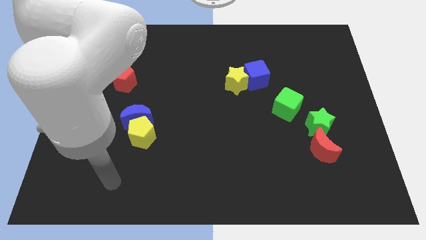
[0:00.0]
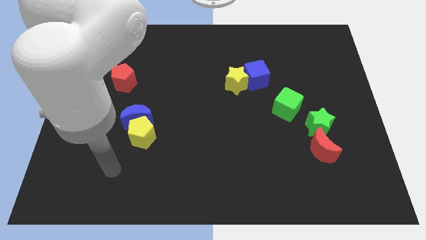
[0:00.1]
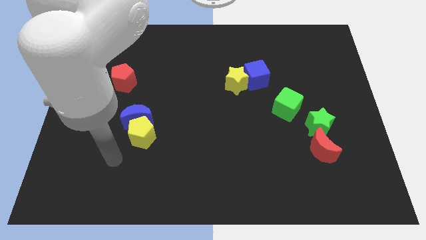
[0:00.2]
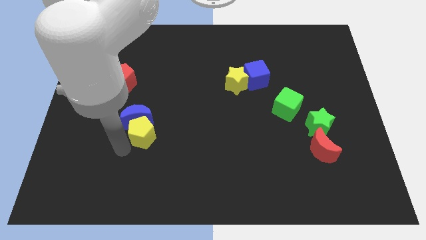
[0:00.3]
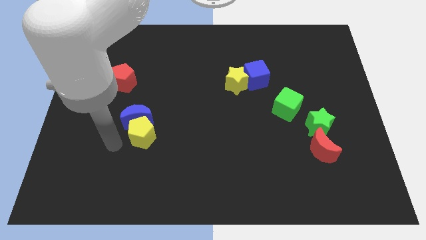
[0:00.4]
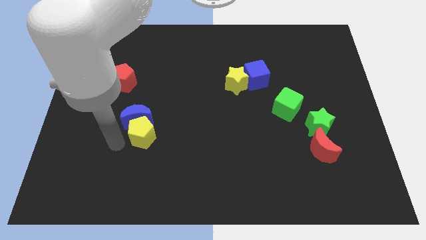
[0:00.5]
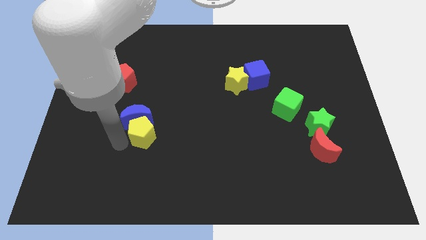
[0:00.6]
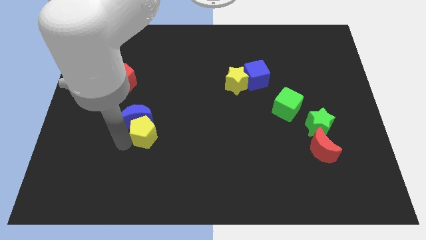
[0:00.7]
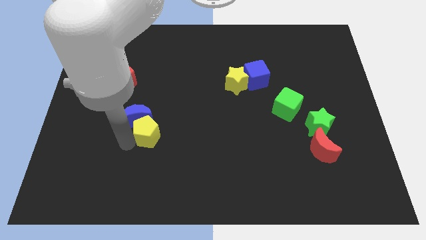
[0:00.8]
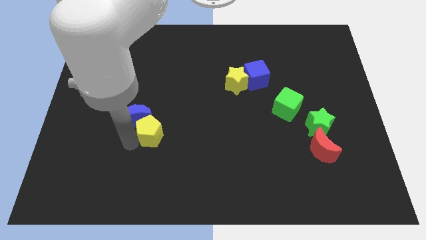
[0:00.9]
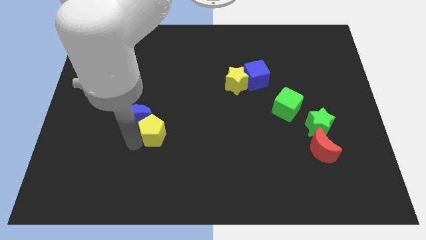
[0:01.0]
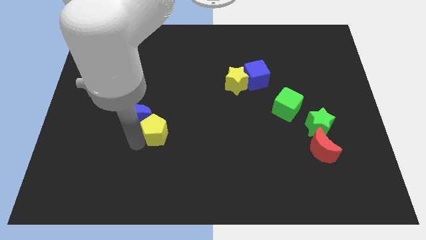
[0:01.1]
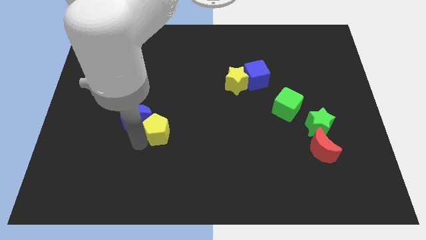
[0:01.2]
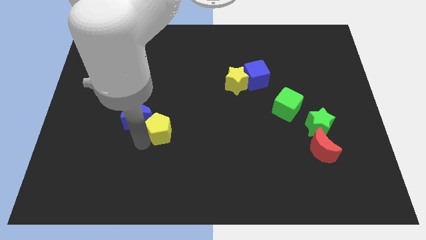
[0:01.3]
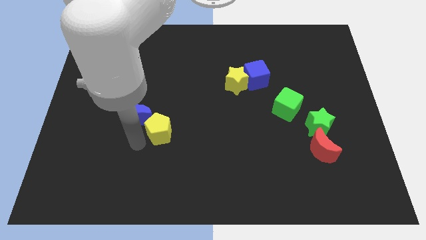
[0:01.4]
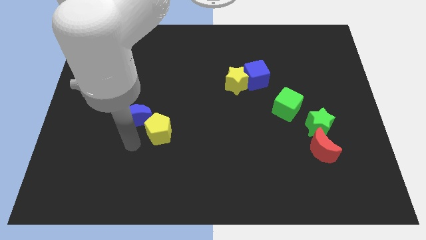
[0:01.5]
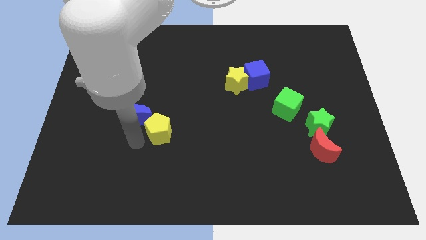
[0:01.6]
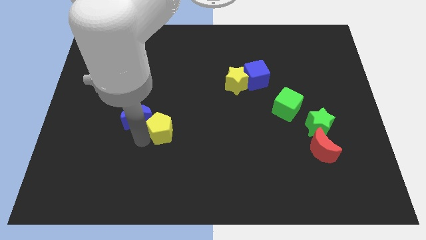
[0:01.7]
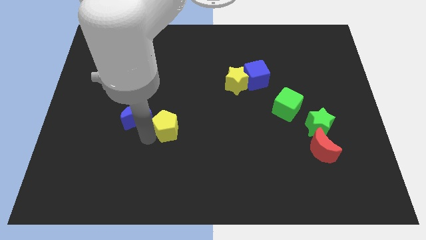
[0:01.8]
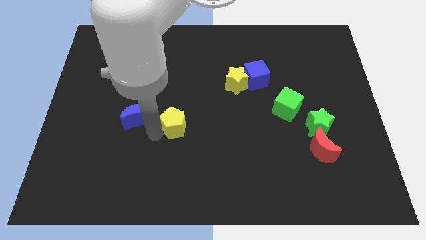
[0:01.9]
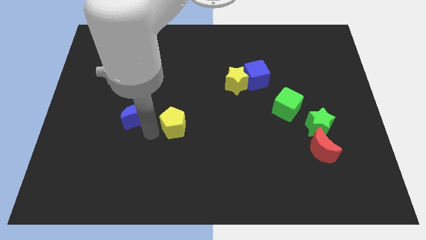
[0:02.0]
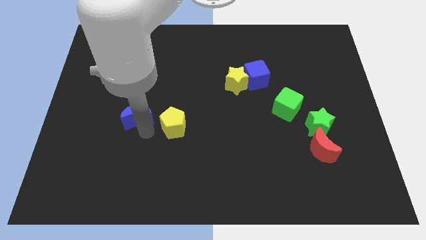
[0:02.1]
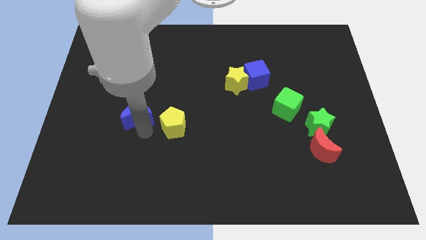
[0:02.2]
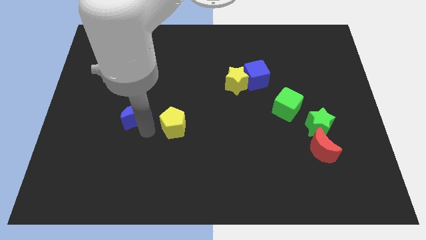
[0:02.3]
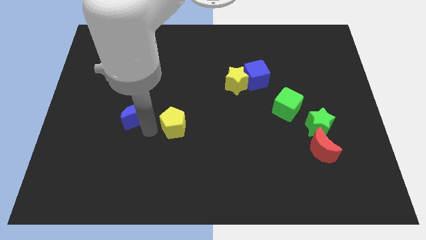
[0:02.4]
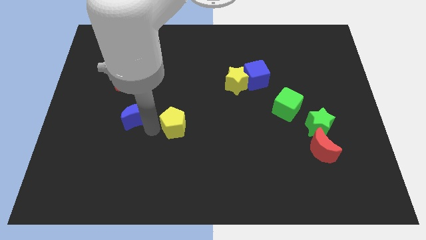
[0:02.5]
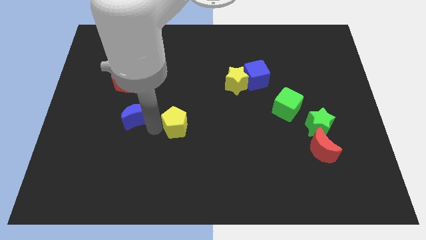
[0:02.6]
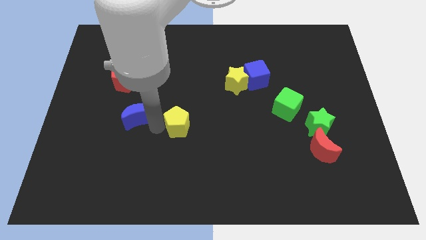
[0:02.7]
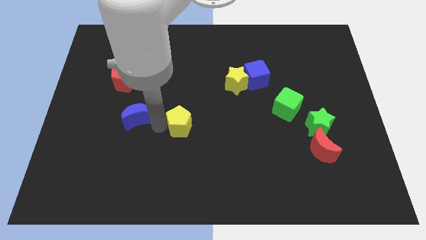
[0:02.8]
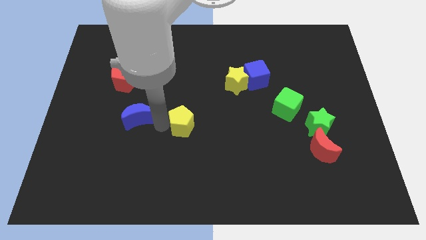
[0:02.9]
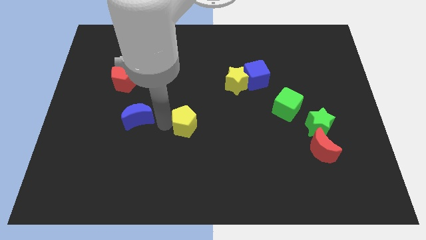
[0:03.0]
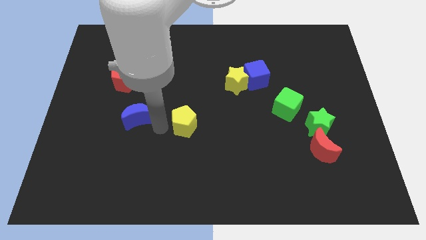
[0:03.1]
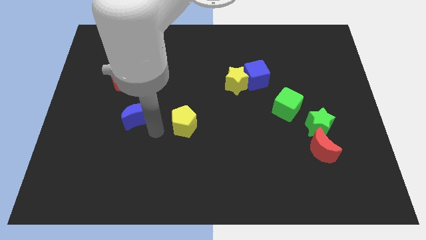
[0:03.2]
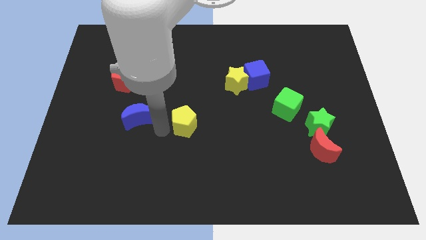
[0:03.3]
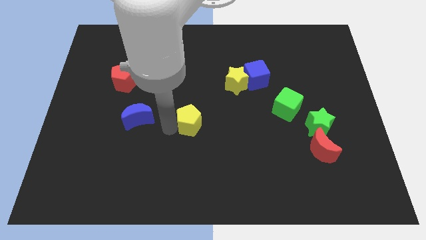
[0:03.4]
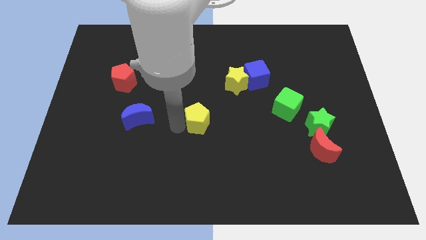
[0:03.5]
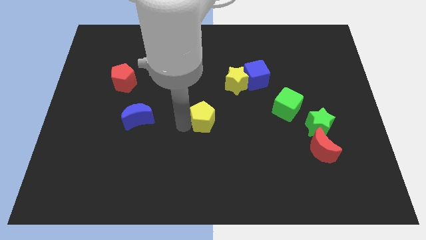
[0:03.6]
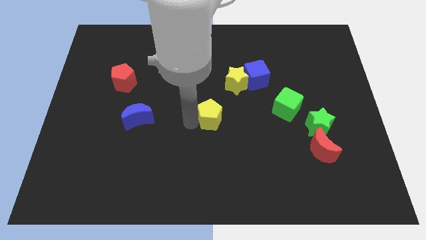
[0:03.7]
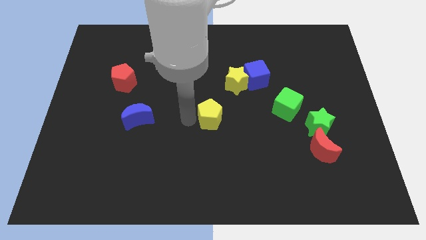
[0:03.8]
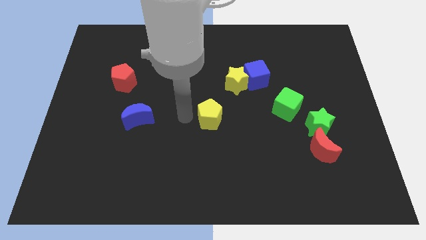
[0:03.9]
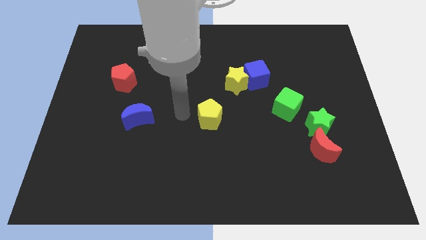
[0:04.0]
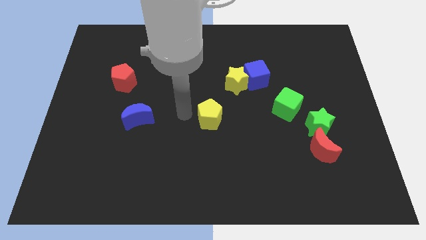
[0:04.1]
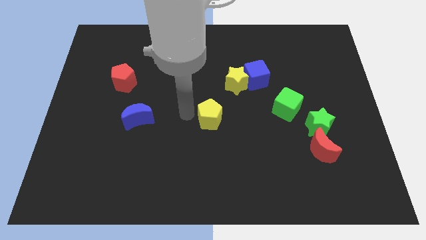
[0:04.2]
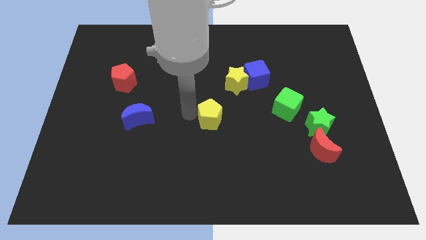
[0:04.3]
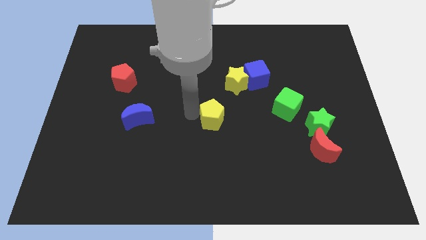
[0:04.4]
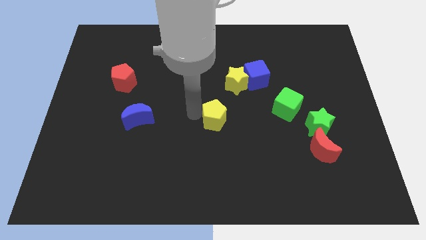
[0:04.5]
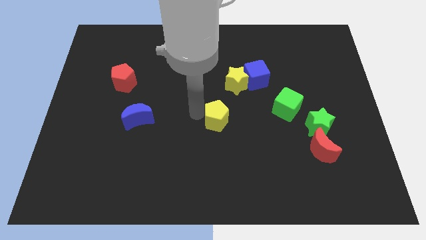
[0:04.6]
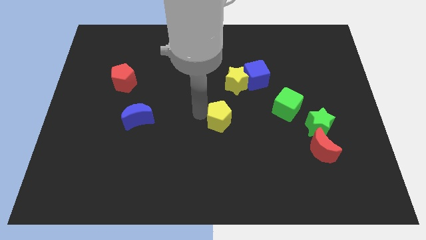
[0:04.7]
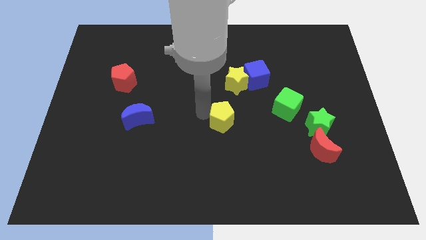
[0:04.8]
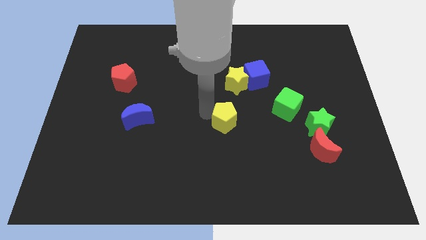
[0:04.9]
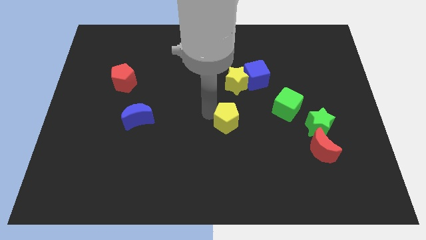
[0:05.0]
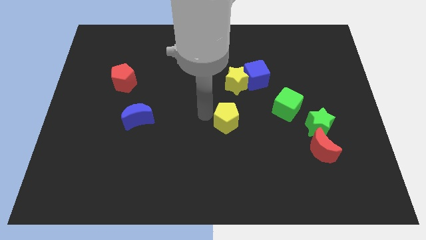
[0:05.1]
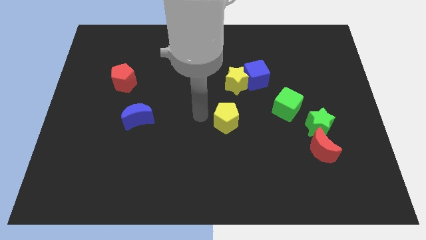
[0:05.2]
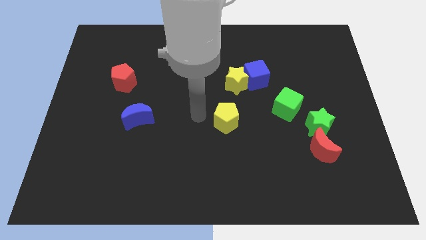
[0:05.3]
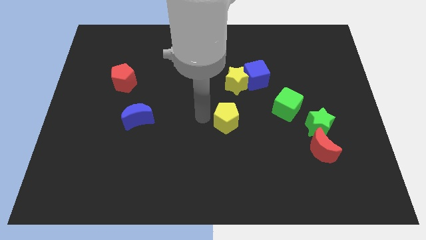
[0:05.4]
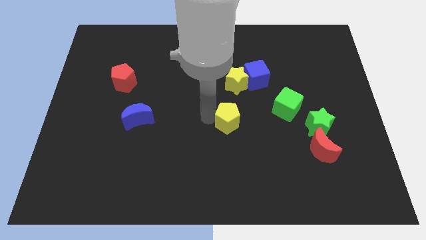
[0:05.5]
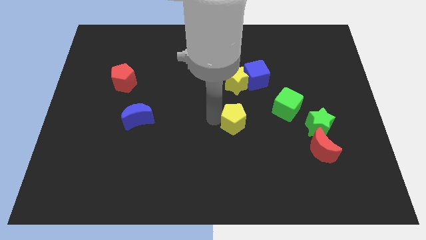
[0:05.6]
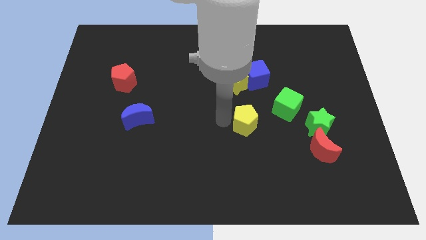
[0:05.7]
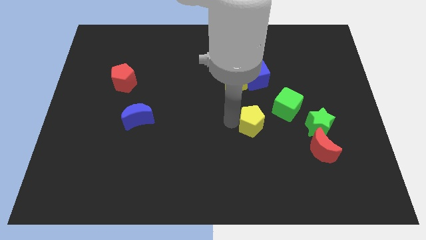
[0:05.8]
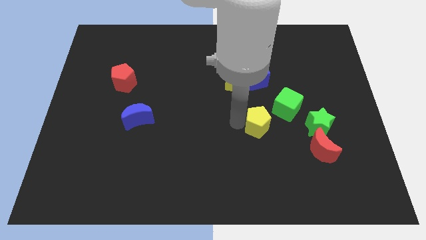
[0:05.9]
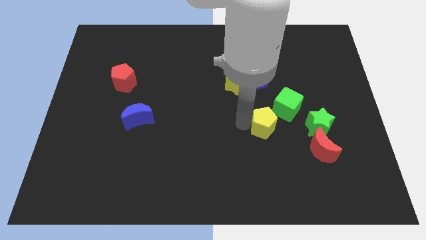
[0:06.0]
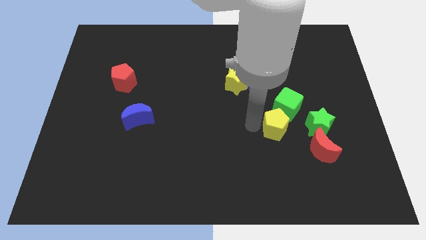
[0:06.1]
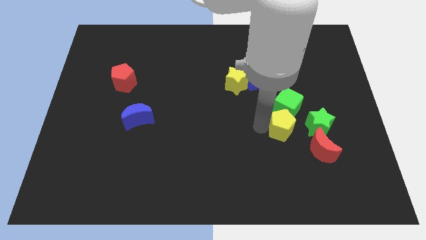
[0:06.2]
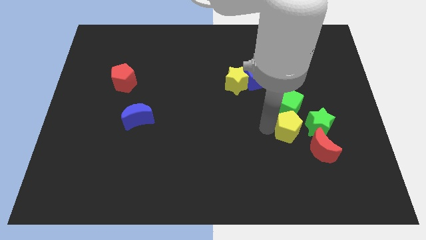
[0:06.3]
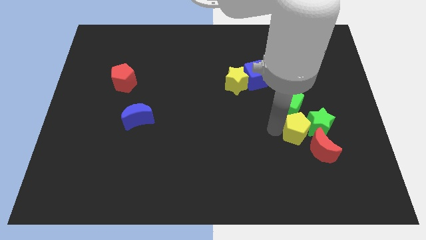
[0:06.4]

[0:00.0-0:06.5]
push the yellow pentagon close to the green star

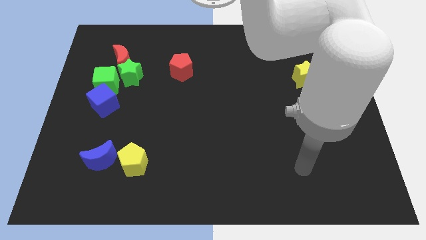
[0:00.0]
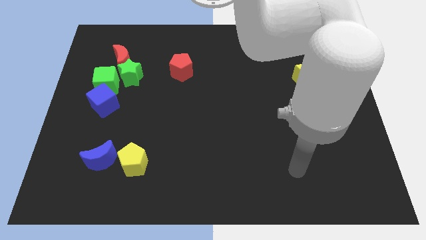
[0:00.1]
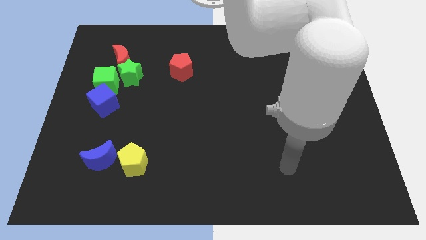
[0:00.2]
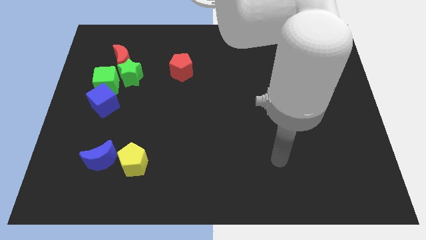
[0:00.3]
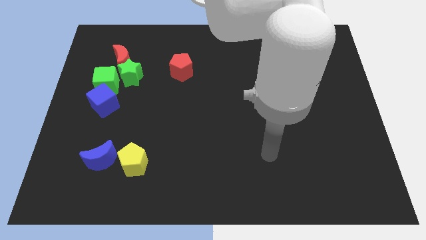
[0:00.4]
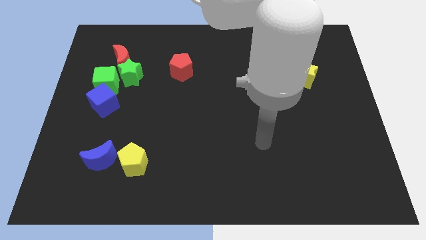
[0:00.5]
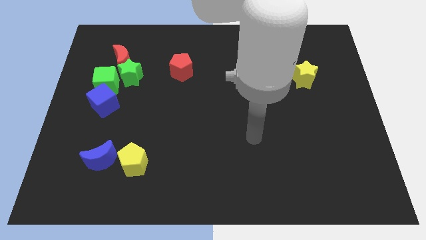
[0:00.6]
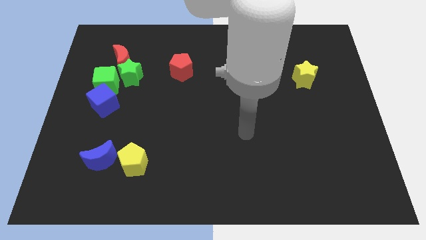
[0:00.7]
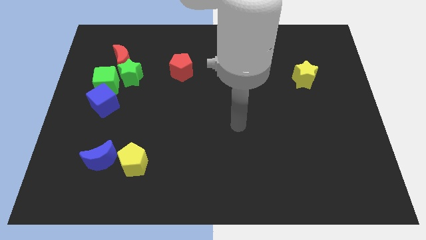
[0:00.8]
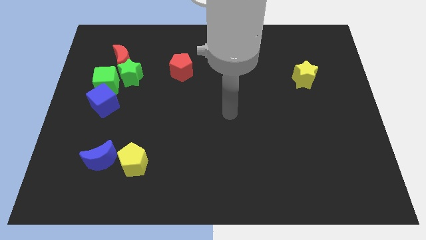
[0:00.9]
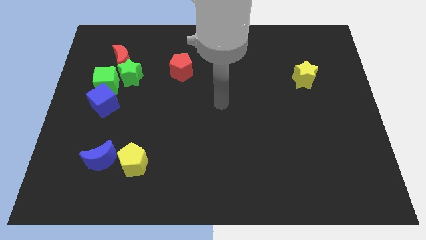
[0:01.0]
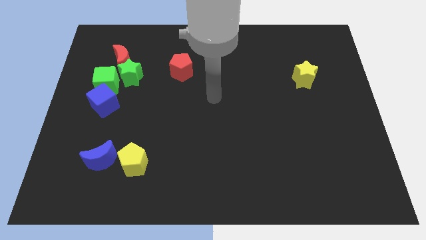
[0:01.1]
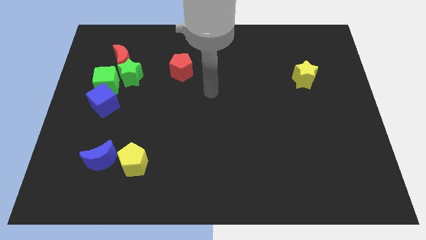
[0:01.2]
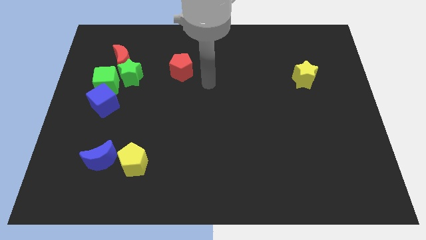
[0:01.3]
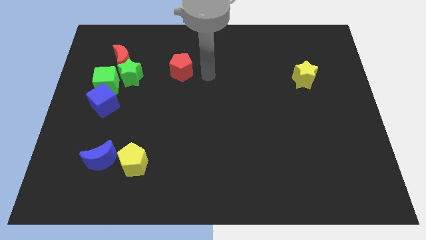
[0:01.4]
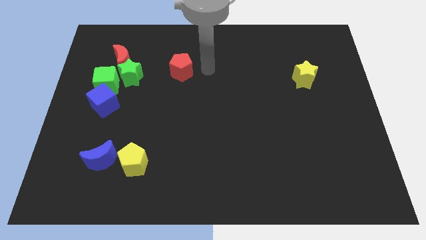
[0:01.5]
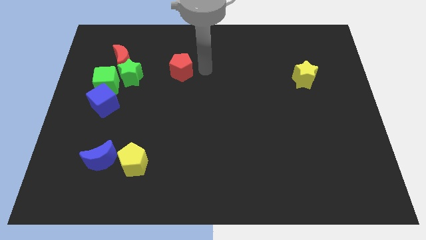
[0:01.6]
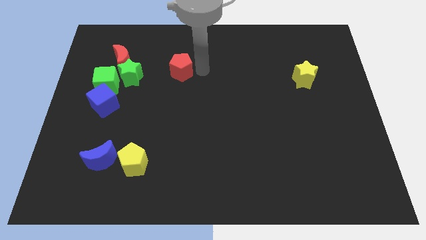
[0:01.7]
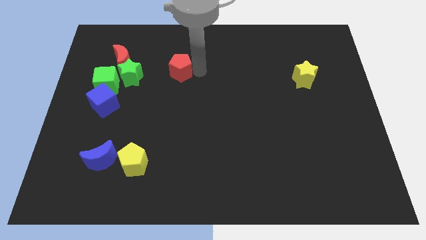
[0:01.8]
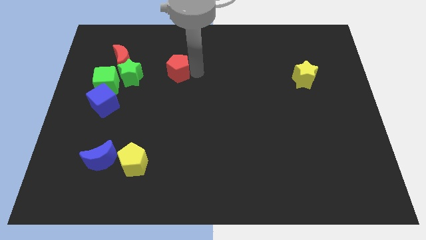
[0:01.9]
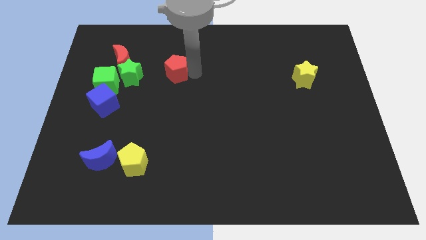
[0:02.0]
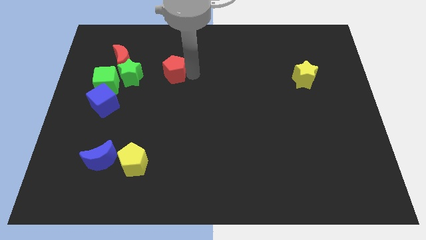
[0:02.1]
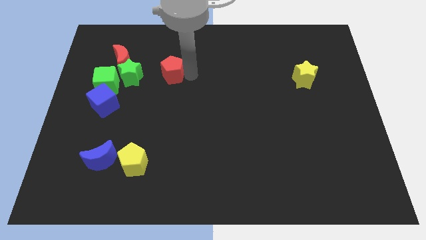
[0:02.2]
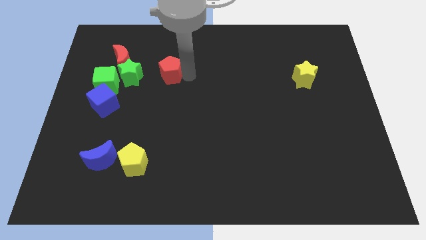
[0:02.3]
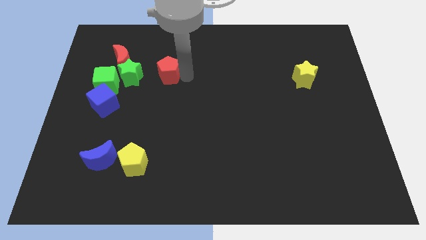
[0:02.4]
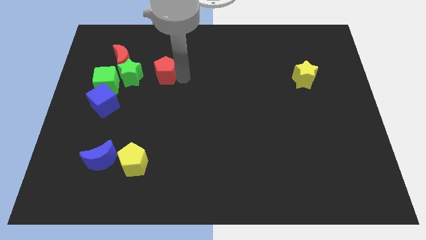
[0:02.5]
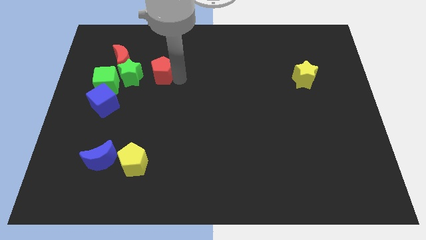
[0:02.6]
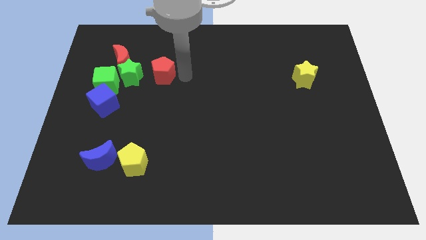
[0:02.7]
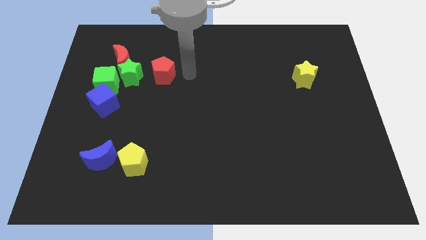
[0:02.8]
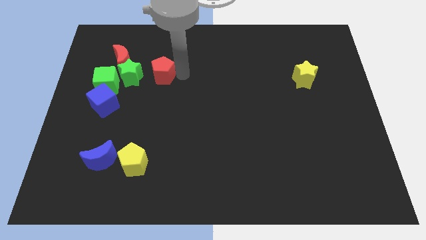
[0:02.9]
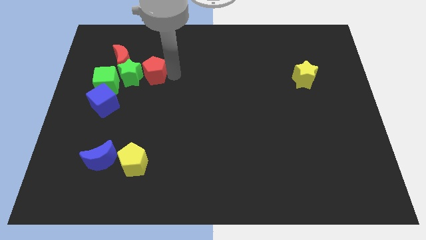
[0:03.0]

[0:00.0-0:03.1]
put the red pentagon to the green star
